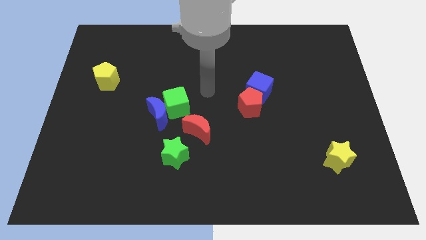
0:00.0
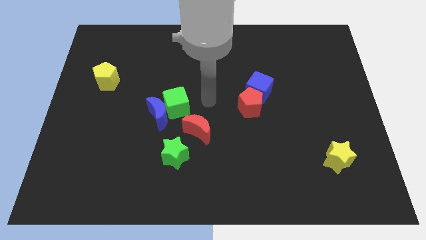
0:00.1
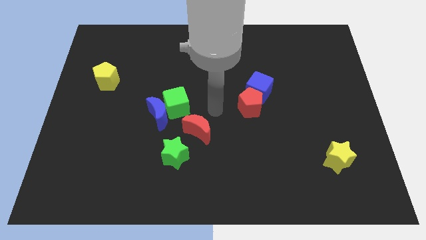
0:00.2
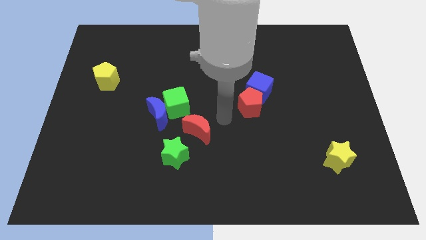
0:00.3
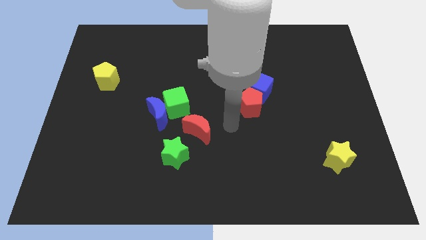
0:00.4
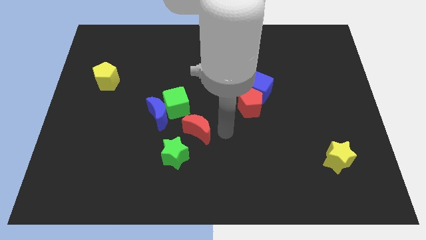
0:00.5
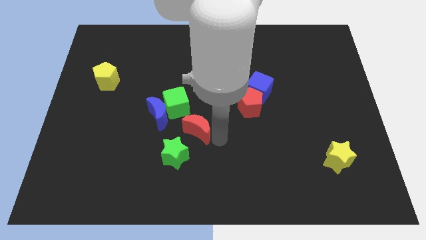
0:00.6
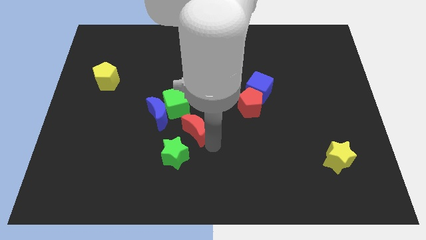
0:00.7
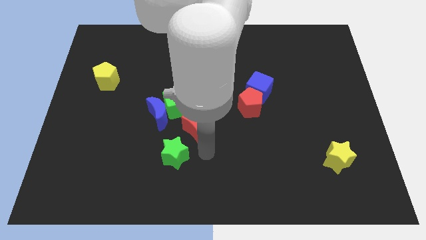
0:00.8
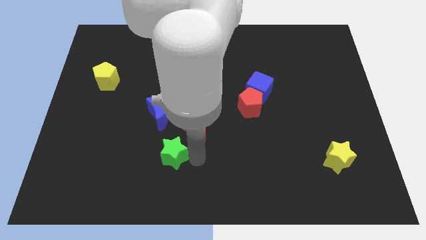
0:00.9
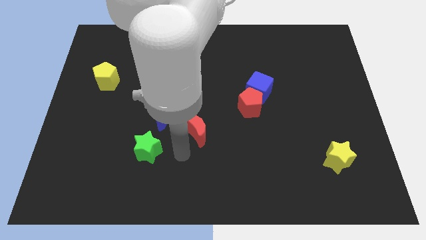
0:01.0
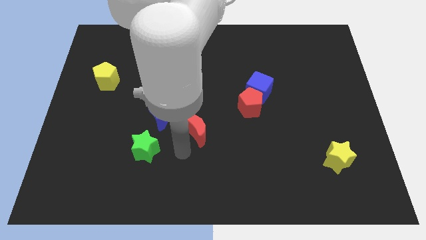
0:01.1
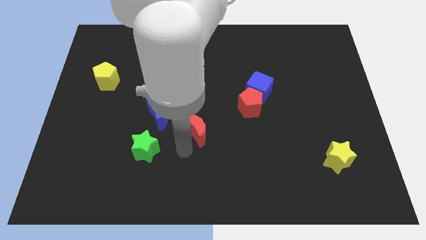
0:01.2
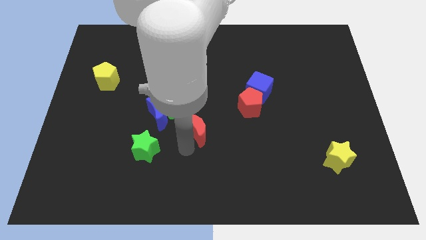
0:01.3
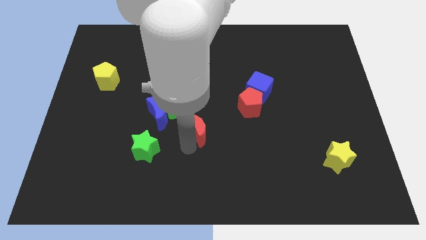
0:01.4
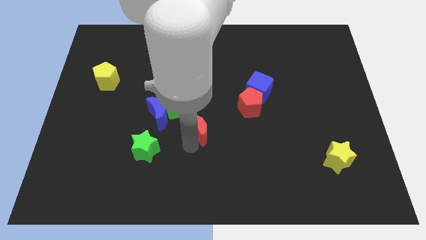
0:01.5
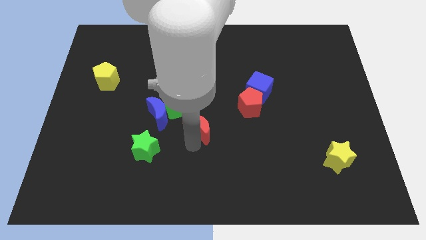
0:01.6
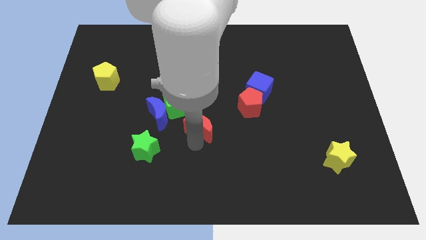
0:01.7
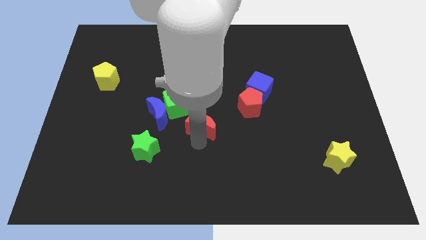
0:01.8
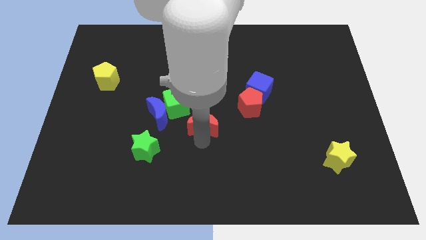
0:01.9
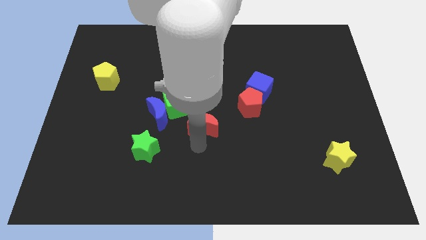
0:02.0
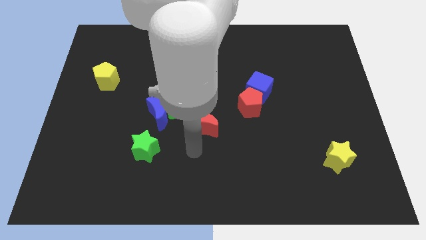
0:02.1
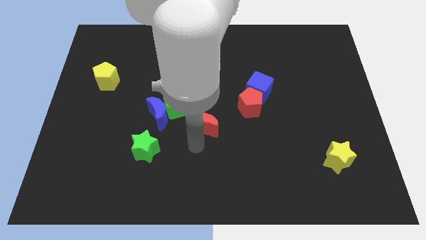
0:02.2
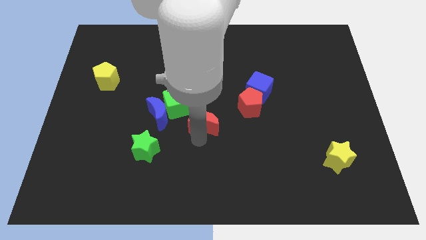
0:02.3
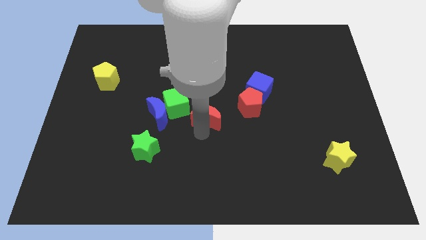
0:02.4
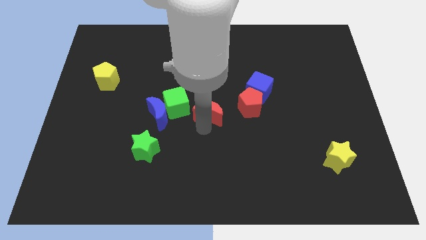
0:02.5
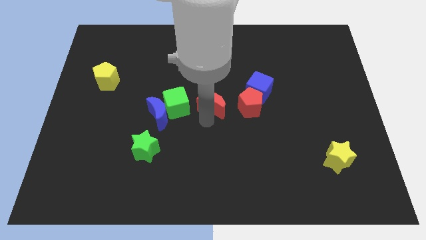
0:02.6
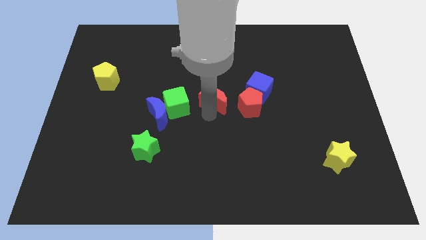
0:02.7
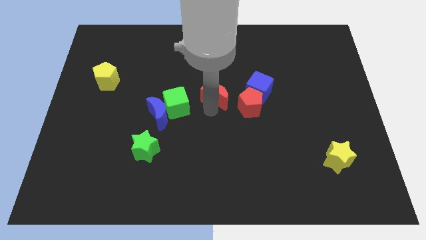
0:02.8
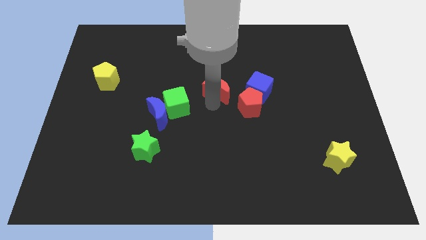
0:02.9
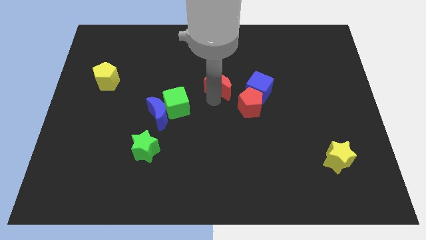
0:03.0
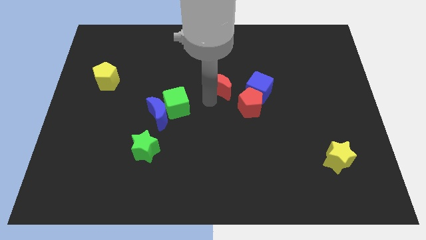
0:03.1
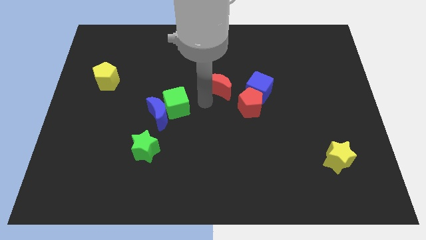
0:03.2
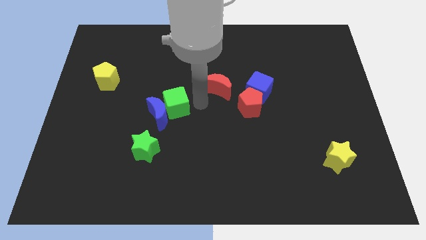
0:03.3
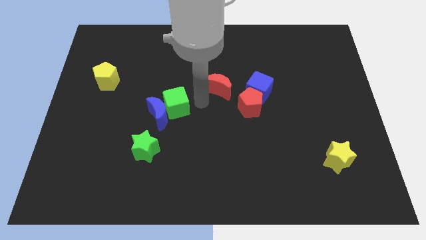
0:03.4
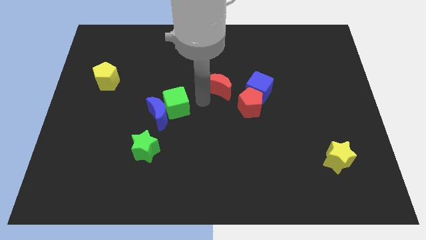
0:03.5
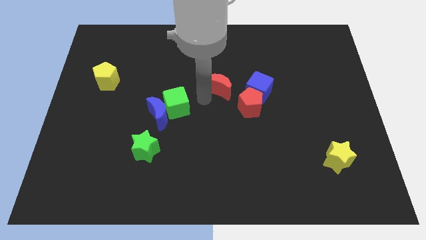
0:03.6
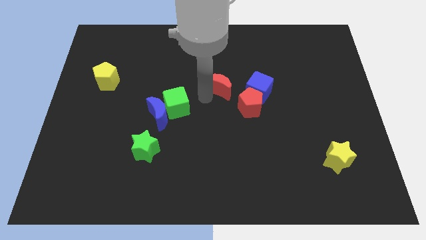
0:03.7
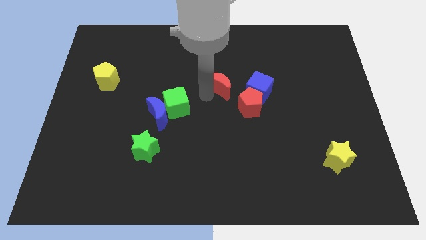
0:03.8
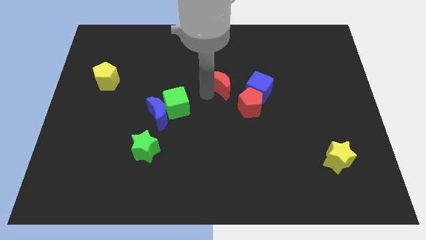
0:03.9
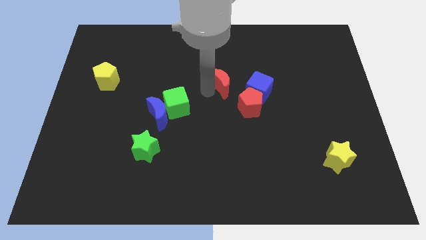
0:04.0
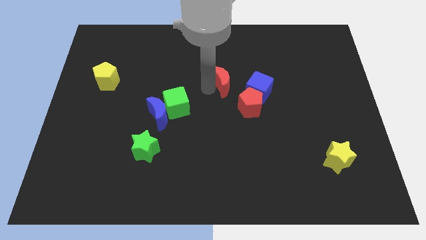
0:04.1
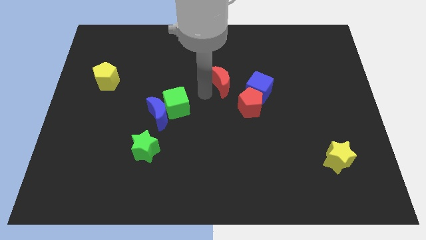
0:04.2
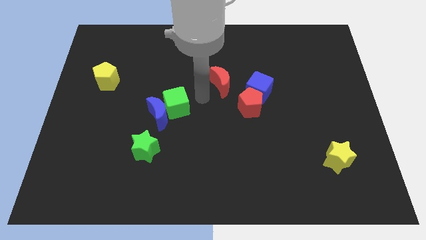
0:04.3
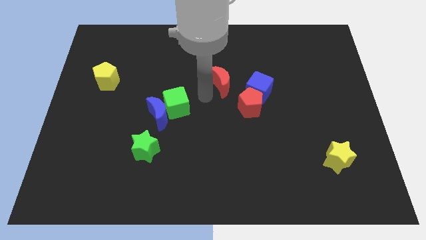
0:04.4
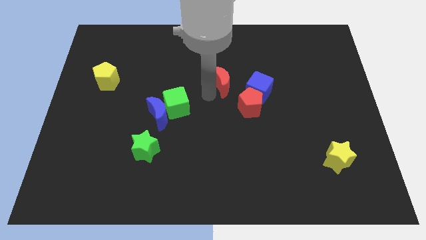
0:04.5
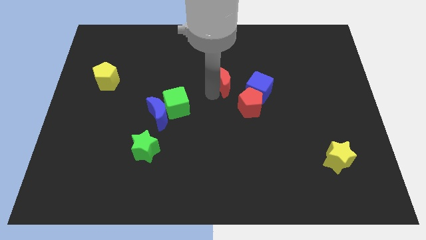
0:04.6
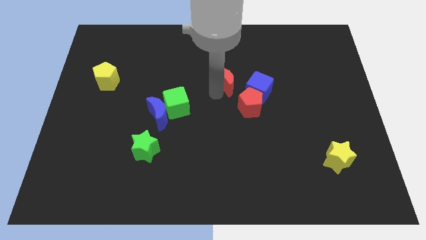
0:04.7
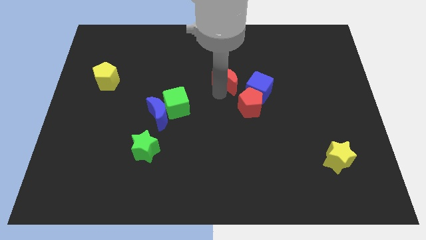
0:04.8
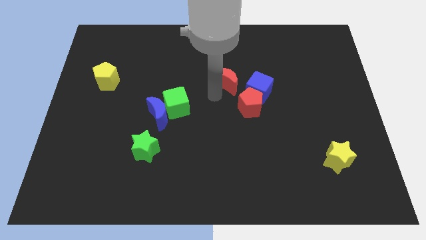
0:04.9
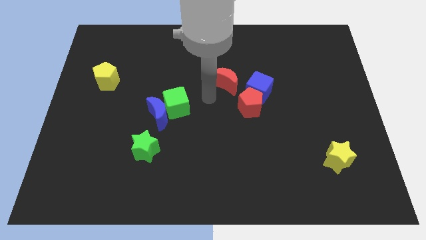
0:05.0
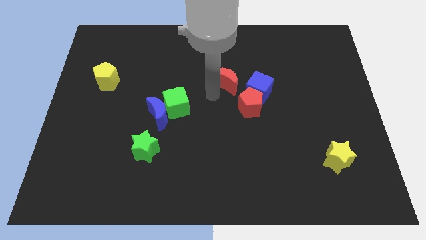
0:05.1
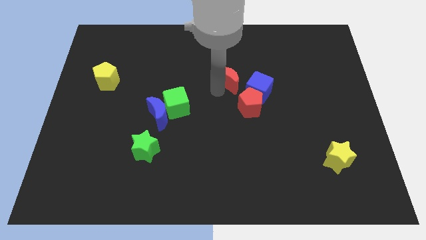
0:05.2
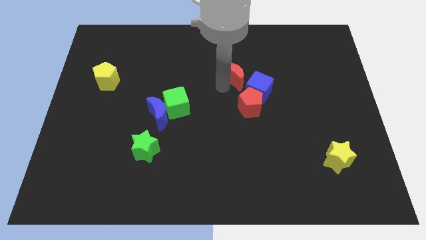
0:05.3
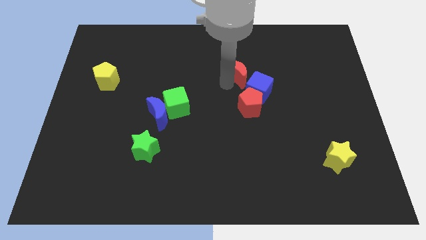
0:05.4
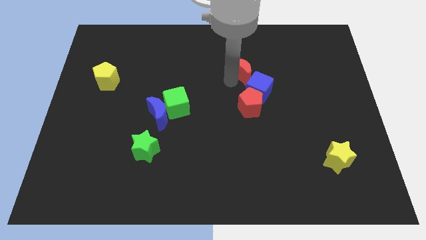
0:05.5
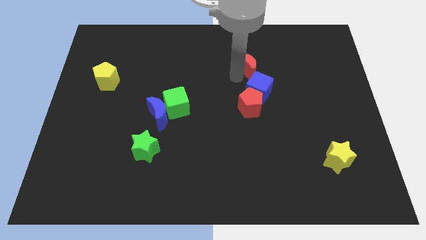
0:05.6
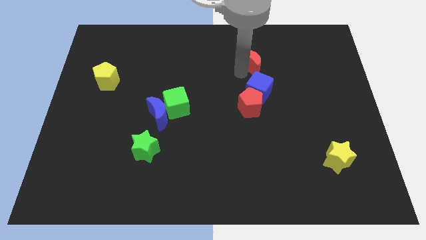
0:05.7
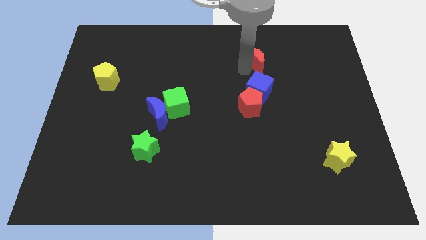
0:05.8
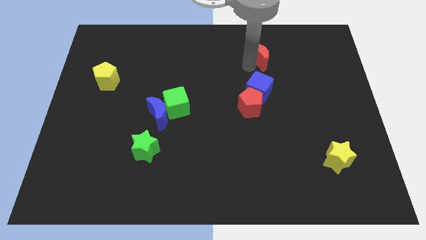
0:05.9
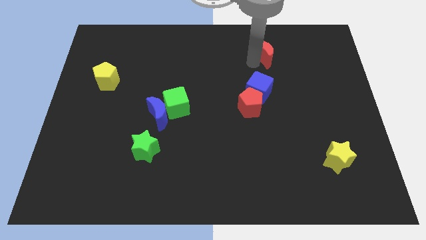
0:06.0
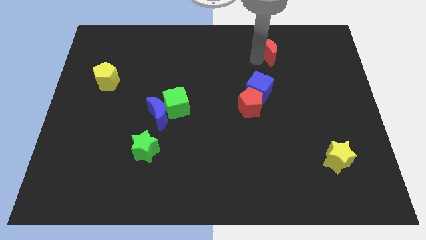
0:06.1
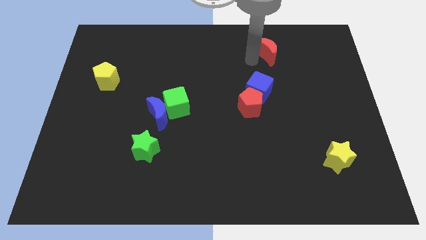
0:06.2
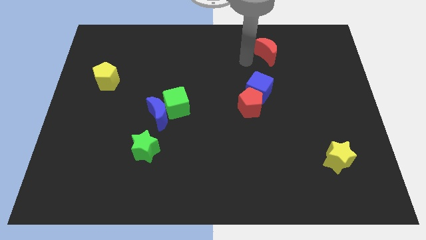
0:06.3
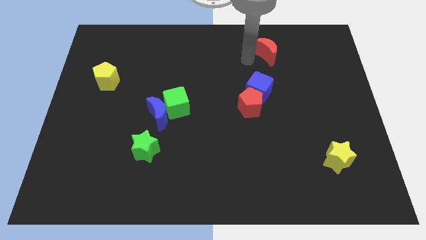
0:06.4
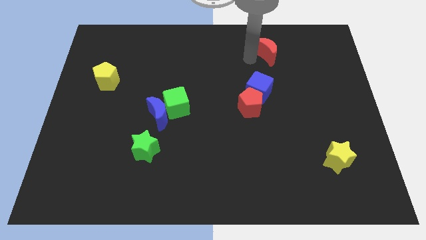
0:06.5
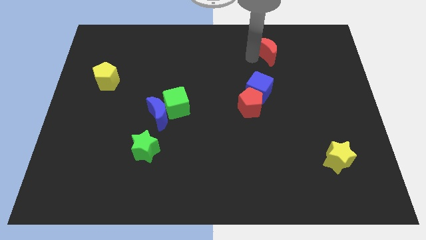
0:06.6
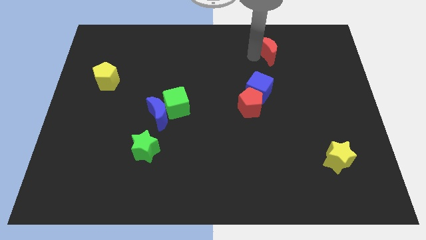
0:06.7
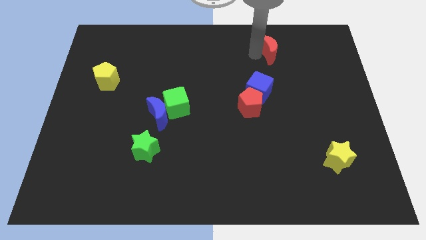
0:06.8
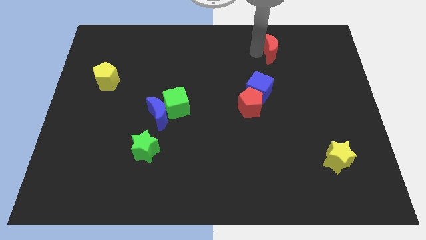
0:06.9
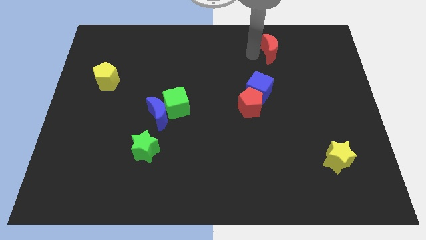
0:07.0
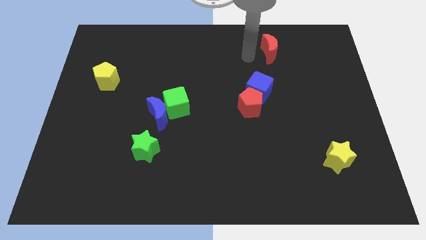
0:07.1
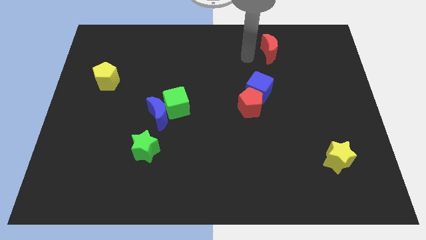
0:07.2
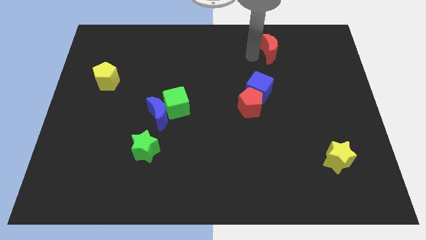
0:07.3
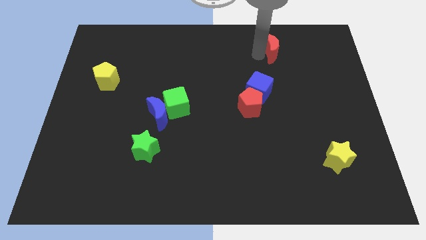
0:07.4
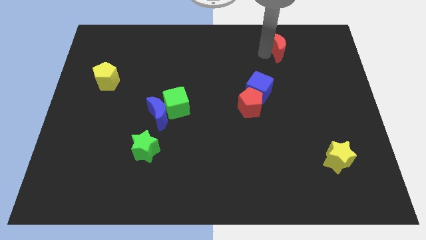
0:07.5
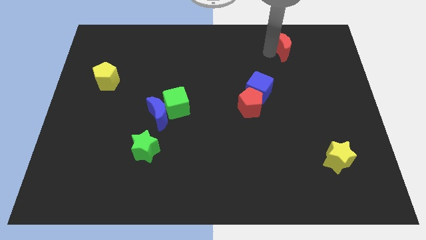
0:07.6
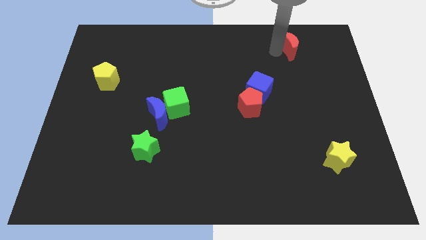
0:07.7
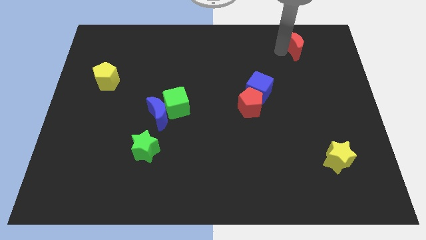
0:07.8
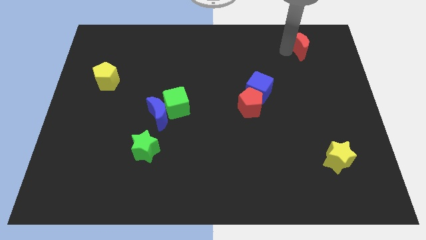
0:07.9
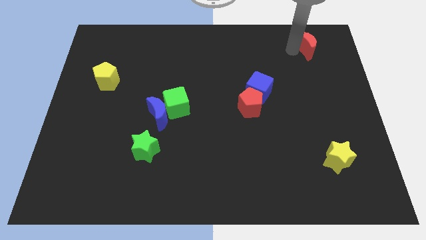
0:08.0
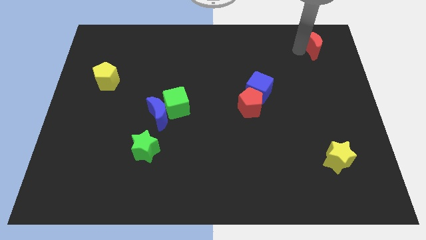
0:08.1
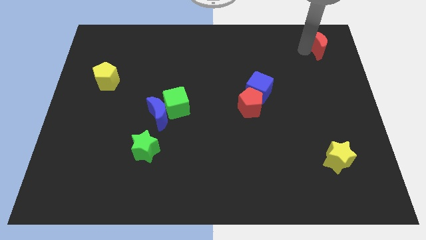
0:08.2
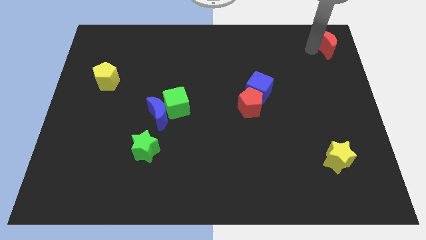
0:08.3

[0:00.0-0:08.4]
move the red moon to the upper right corner
